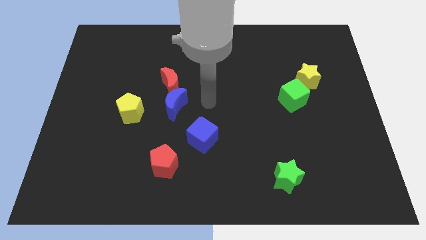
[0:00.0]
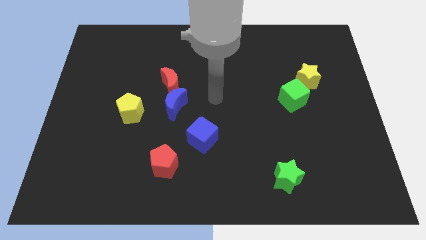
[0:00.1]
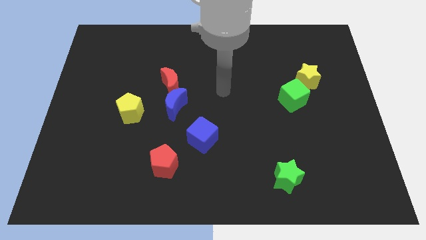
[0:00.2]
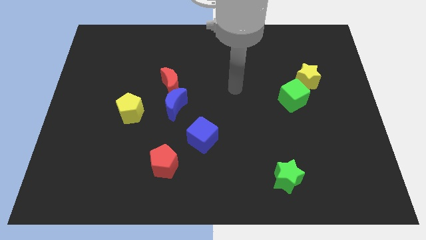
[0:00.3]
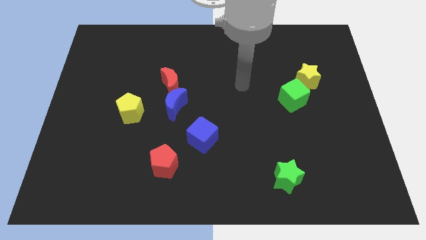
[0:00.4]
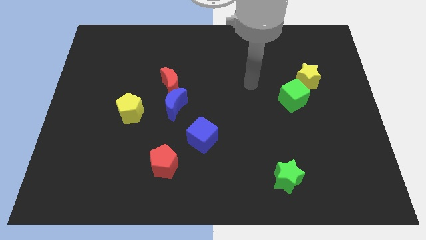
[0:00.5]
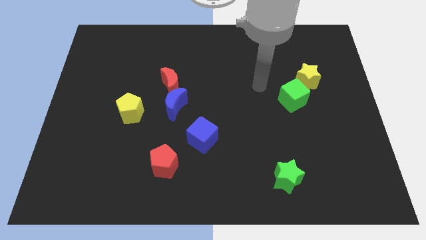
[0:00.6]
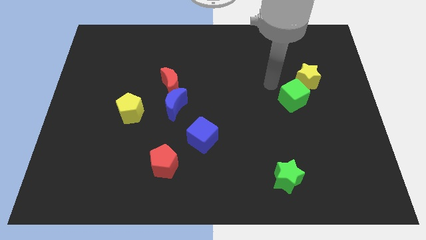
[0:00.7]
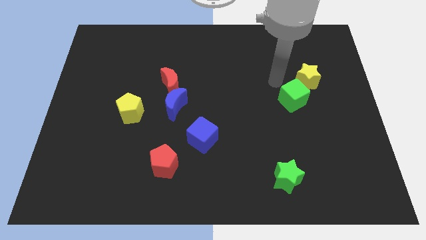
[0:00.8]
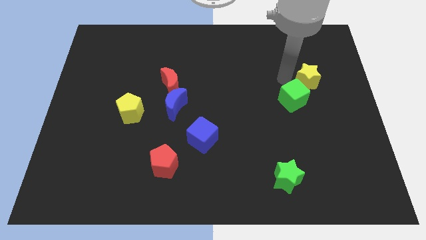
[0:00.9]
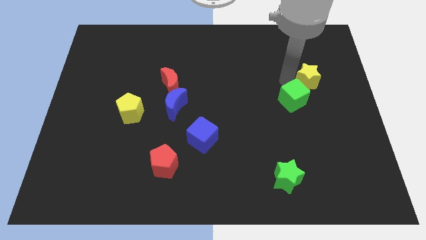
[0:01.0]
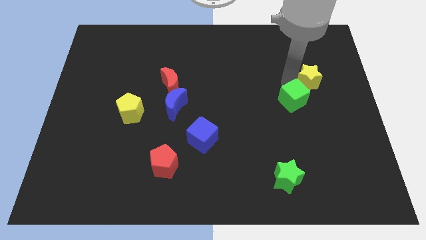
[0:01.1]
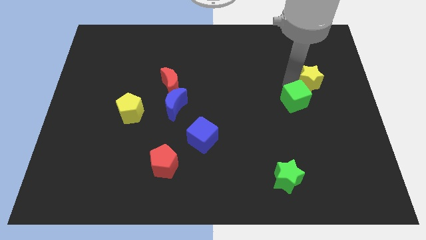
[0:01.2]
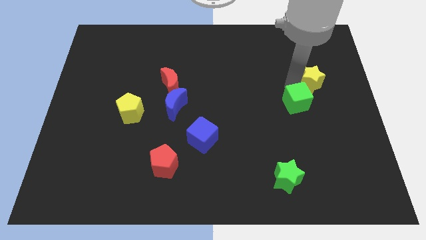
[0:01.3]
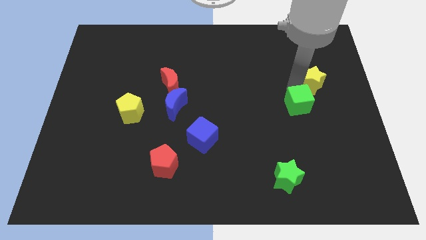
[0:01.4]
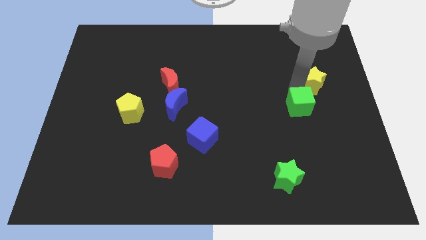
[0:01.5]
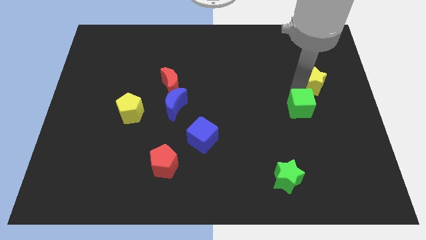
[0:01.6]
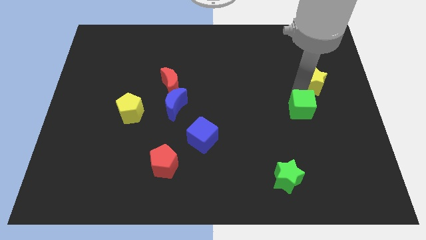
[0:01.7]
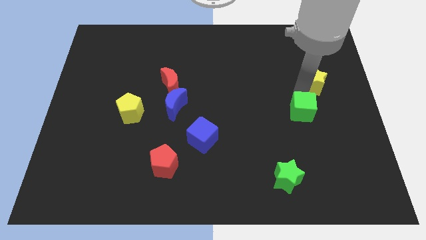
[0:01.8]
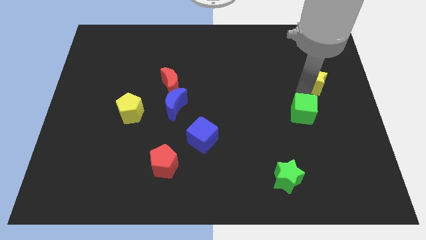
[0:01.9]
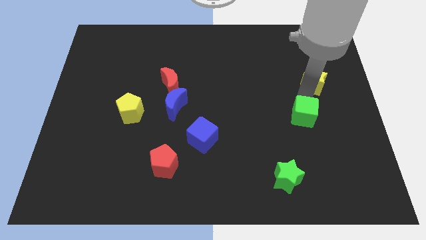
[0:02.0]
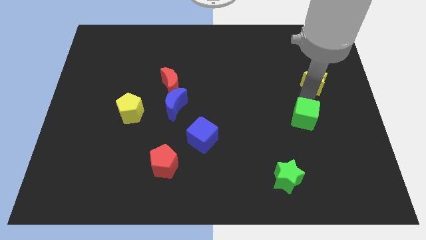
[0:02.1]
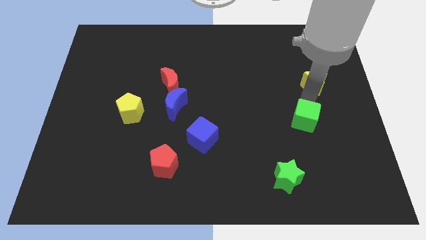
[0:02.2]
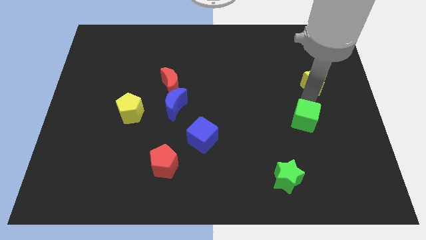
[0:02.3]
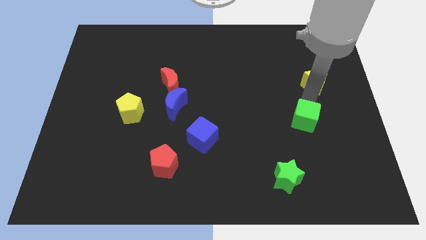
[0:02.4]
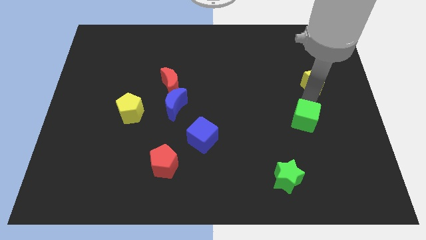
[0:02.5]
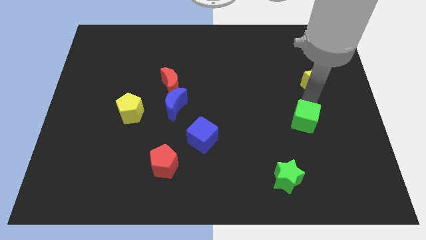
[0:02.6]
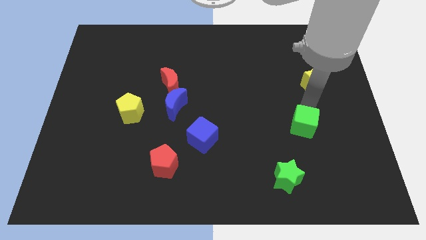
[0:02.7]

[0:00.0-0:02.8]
slightly push the green cube downwards

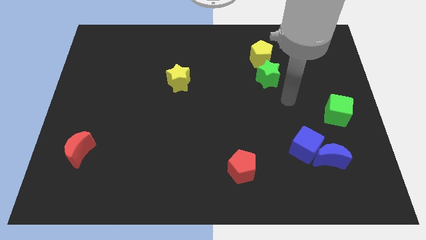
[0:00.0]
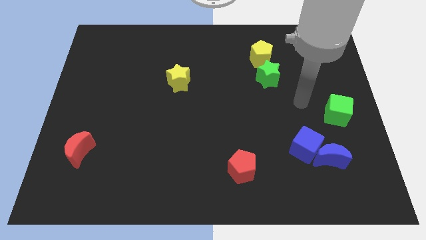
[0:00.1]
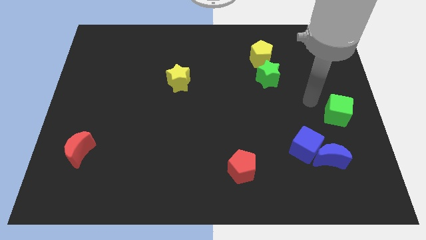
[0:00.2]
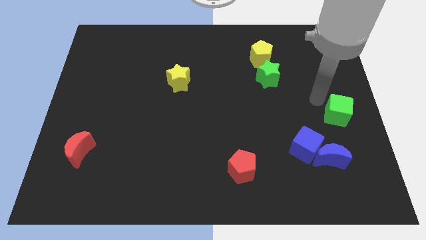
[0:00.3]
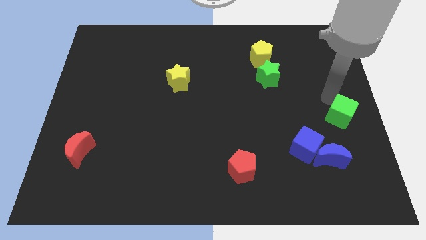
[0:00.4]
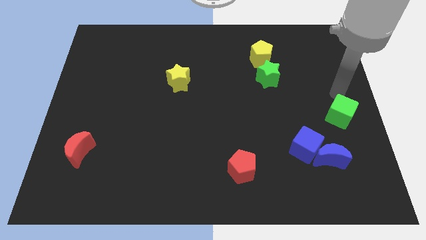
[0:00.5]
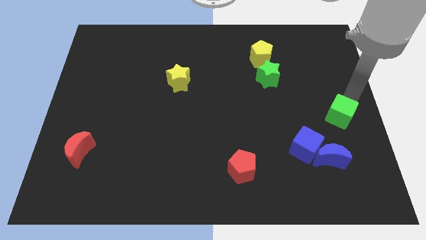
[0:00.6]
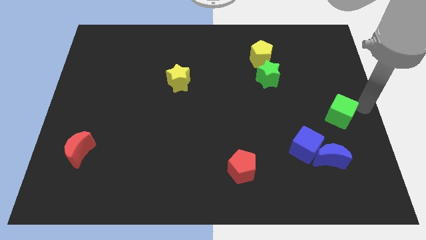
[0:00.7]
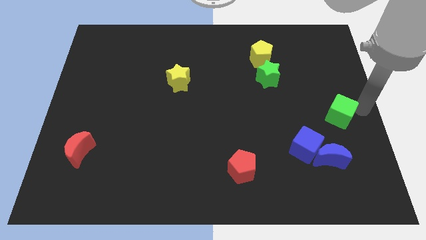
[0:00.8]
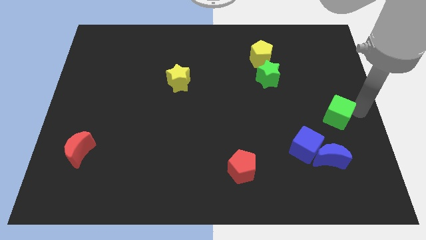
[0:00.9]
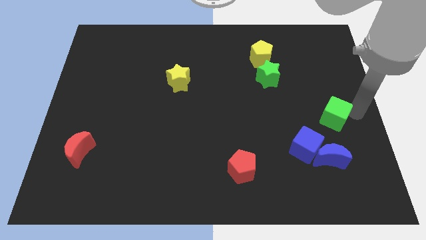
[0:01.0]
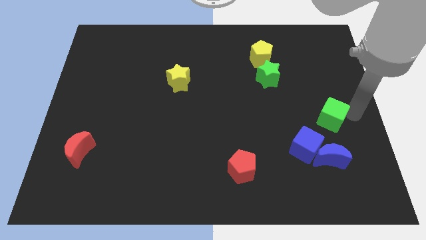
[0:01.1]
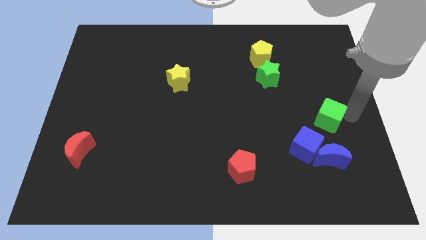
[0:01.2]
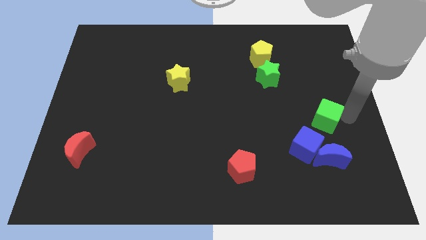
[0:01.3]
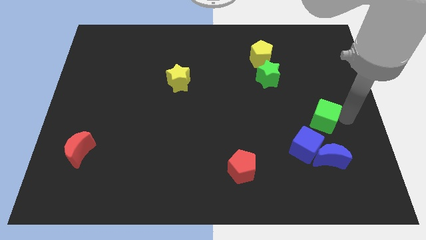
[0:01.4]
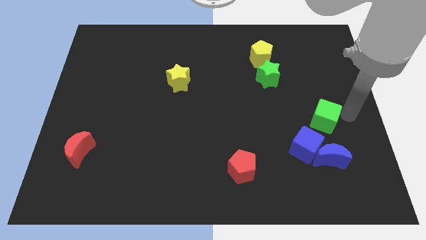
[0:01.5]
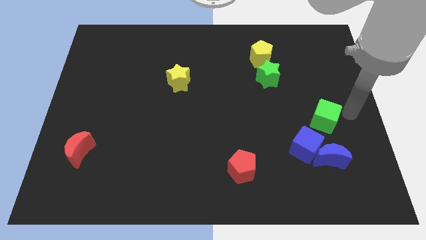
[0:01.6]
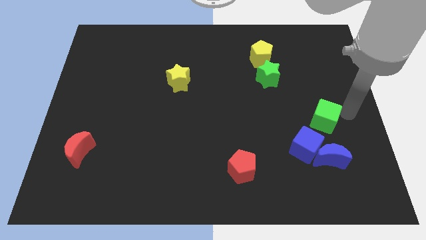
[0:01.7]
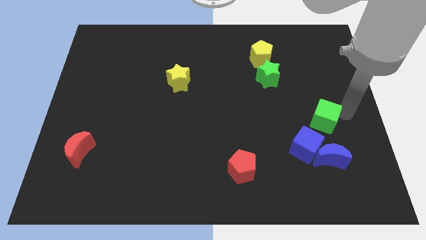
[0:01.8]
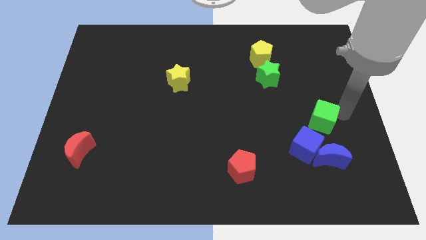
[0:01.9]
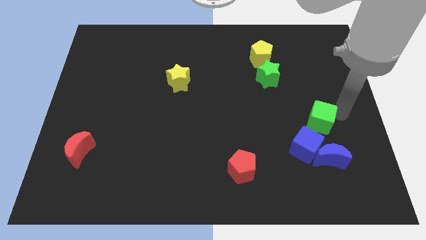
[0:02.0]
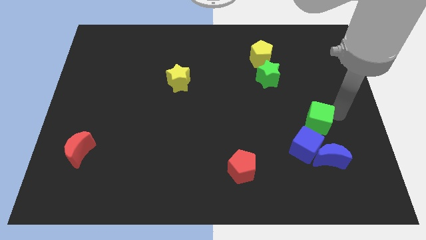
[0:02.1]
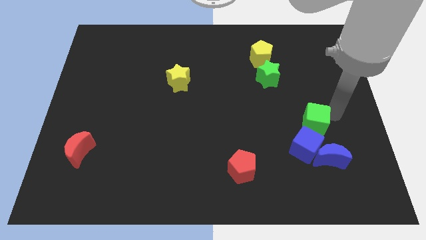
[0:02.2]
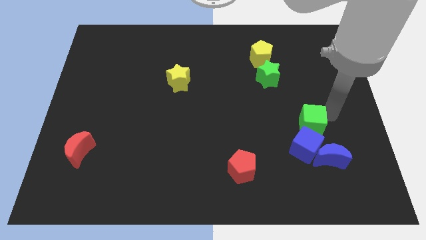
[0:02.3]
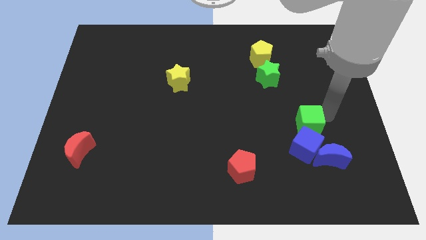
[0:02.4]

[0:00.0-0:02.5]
slightly slide the green cube downwards and then to the left

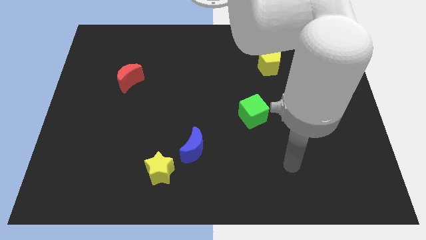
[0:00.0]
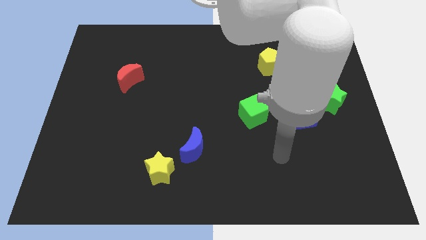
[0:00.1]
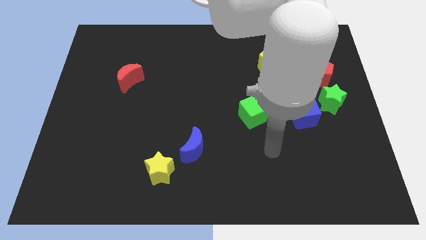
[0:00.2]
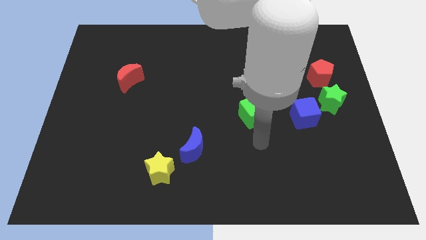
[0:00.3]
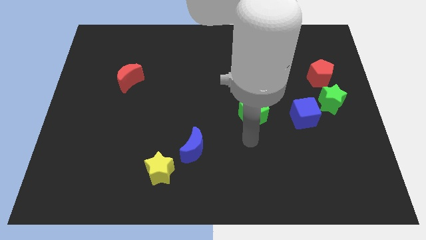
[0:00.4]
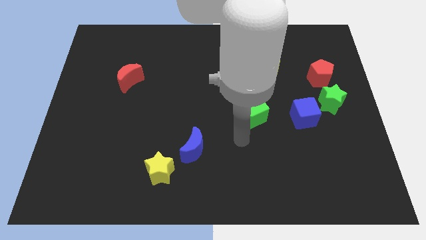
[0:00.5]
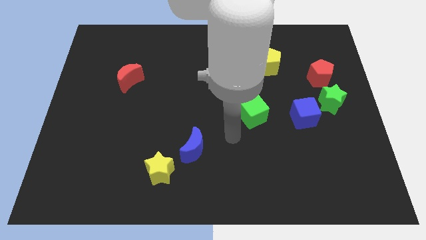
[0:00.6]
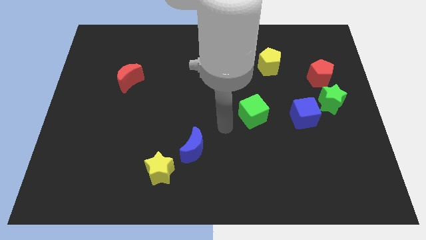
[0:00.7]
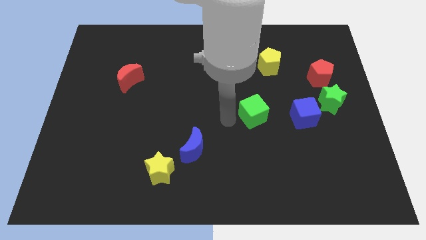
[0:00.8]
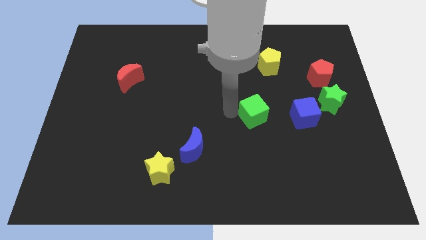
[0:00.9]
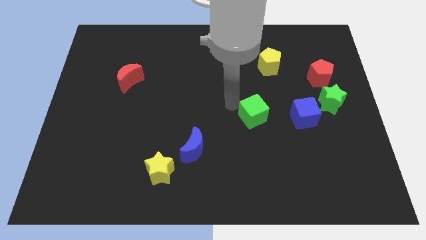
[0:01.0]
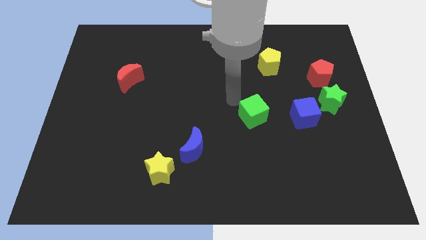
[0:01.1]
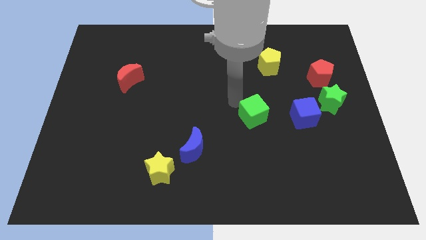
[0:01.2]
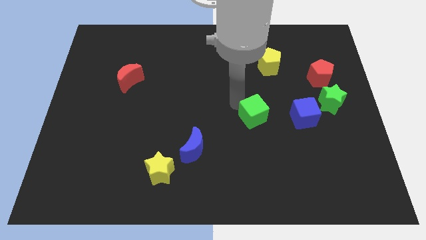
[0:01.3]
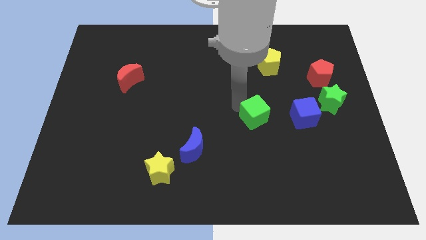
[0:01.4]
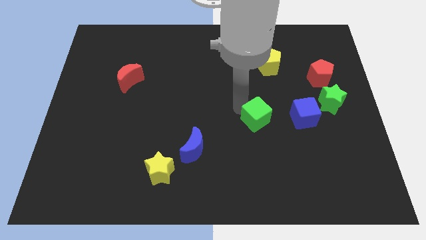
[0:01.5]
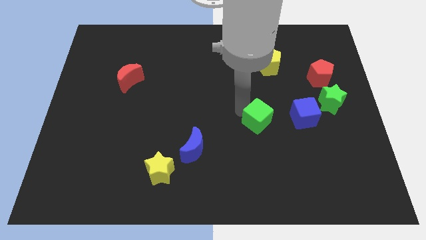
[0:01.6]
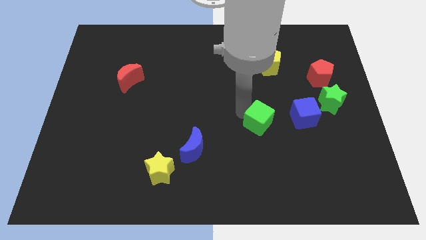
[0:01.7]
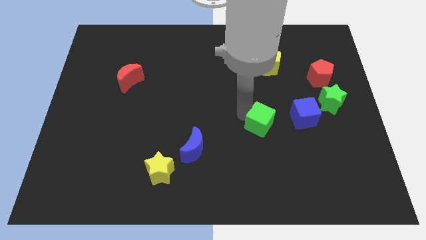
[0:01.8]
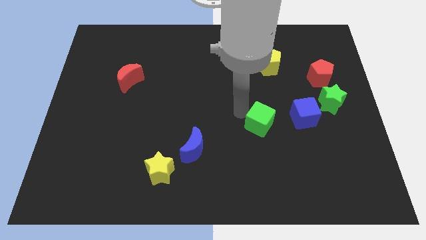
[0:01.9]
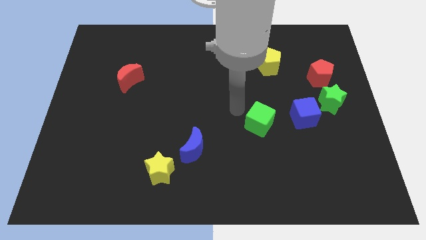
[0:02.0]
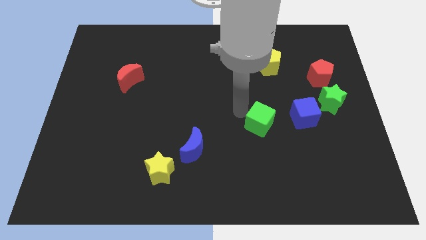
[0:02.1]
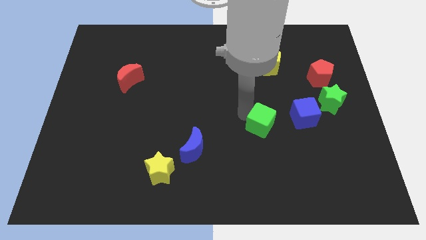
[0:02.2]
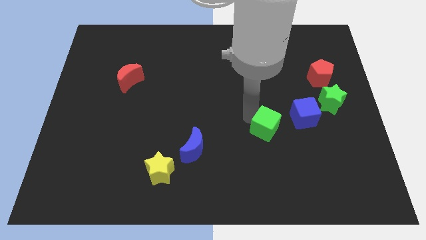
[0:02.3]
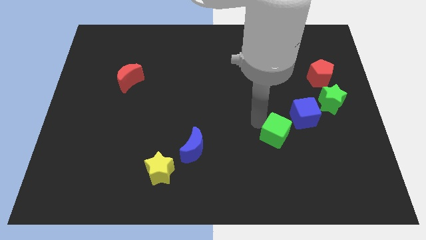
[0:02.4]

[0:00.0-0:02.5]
slightly push the green cube down and right diagonally

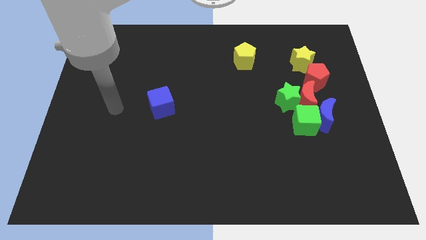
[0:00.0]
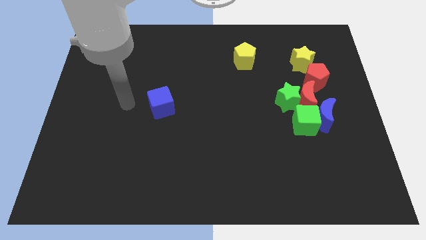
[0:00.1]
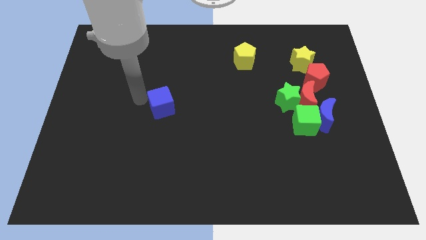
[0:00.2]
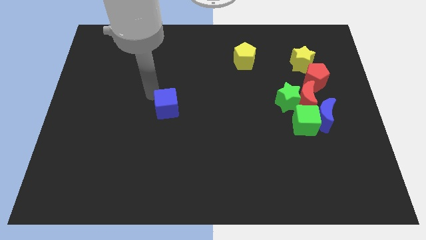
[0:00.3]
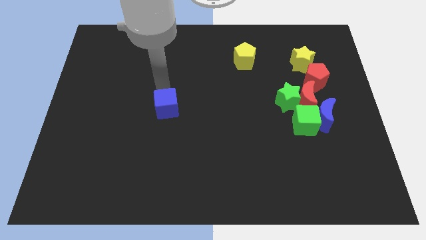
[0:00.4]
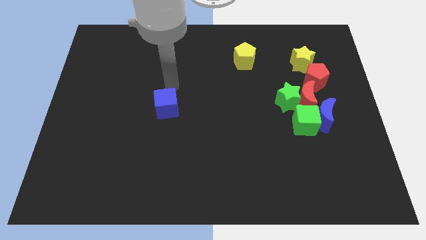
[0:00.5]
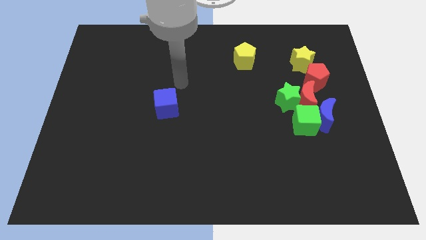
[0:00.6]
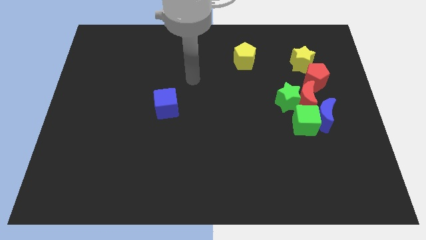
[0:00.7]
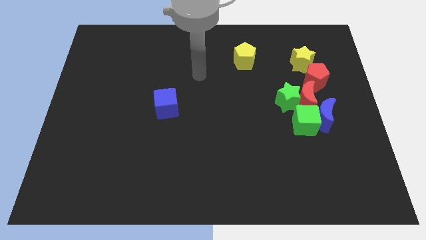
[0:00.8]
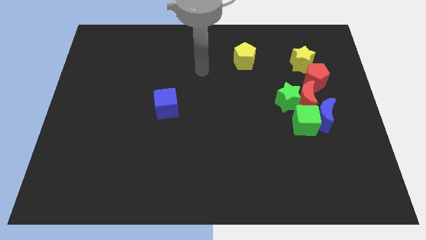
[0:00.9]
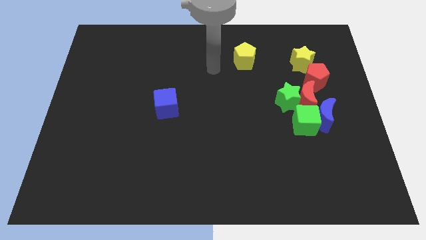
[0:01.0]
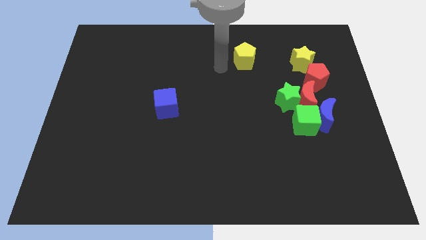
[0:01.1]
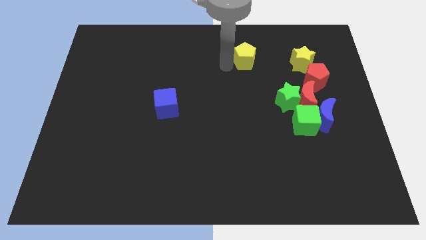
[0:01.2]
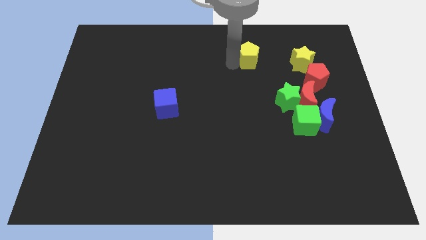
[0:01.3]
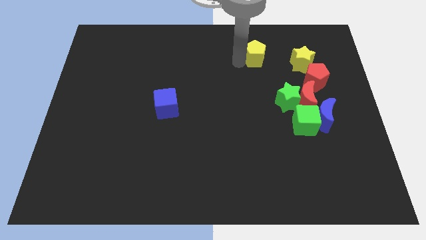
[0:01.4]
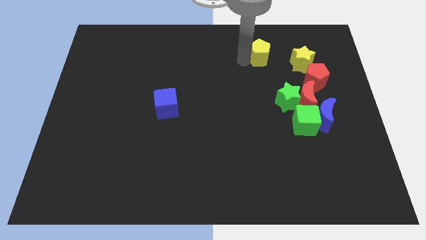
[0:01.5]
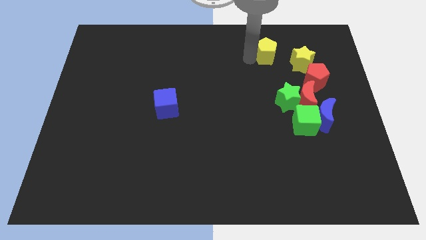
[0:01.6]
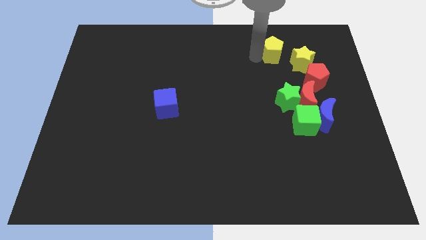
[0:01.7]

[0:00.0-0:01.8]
push the yellow pentagon to the right somewhat
